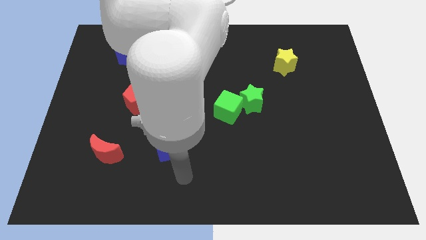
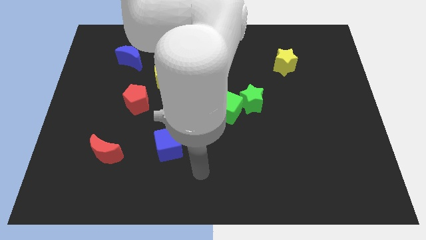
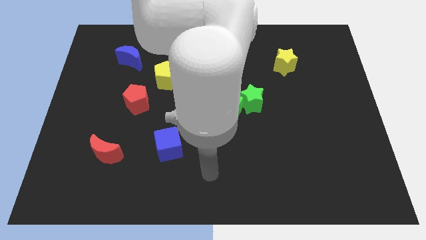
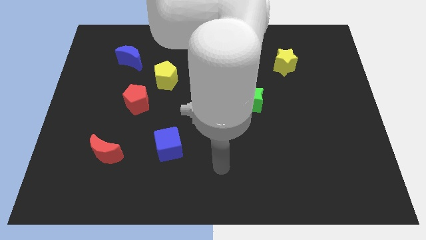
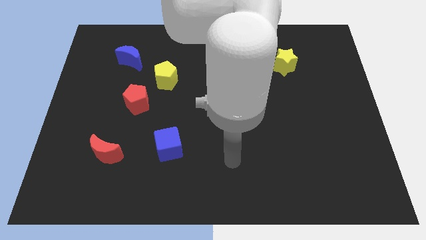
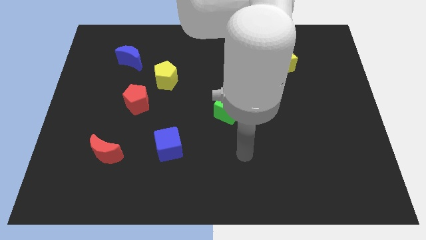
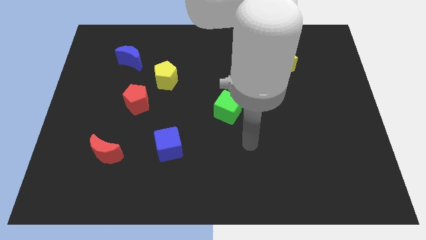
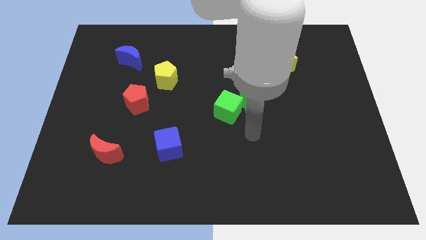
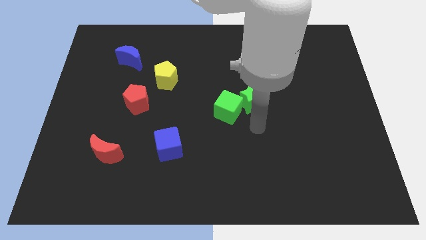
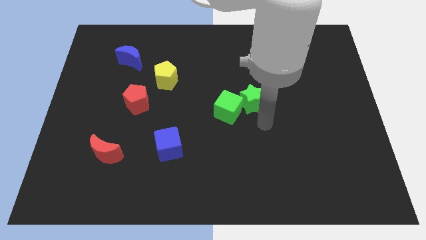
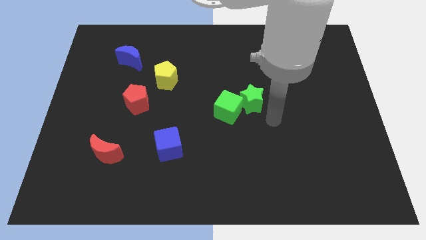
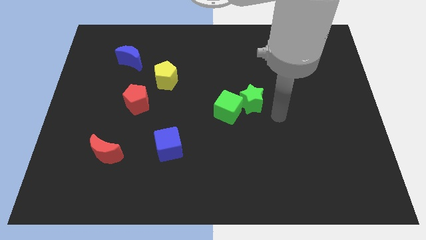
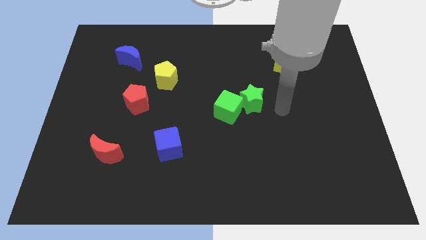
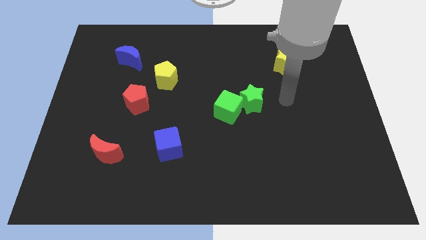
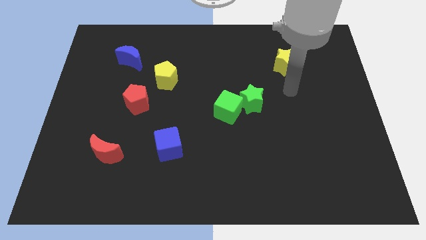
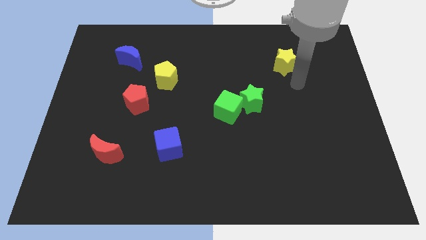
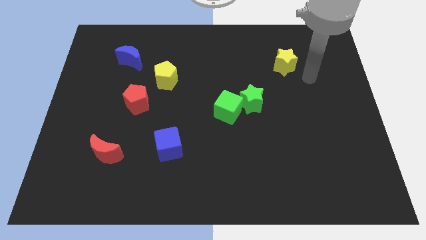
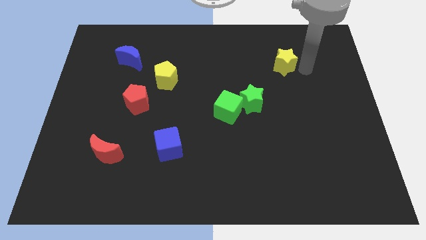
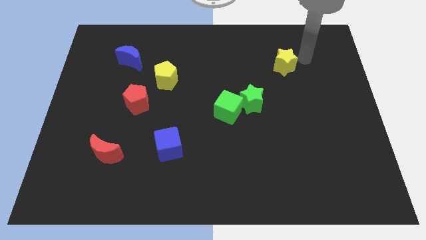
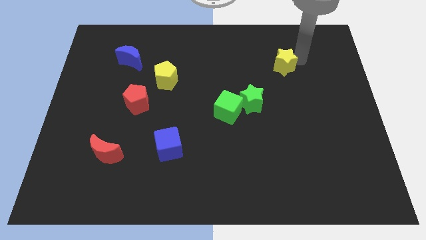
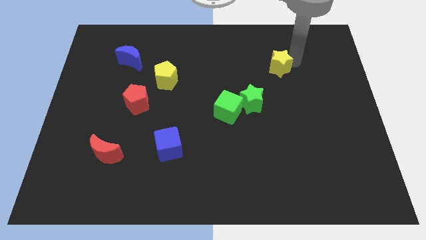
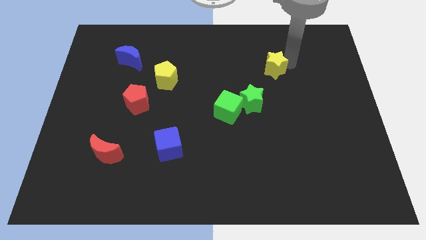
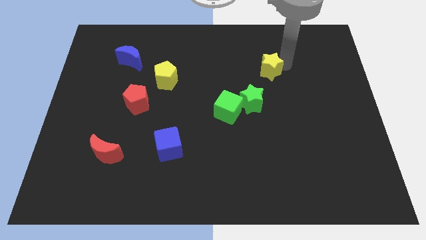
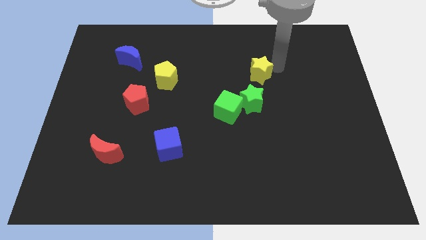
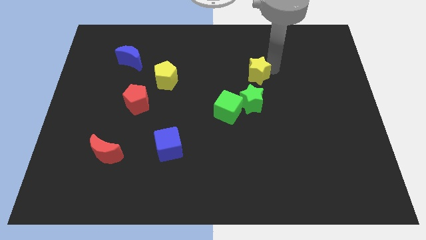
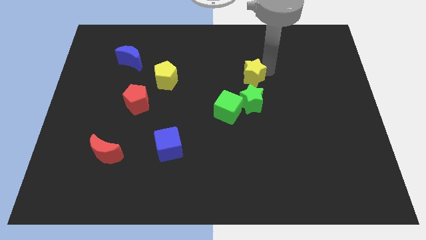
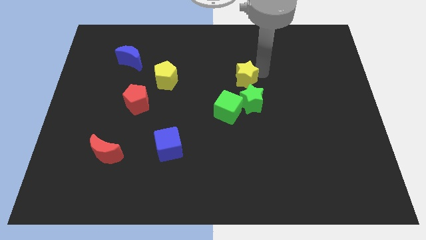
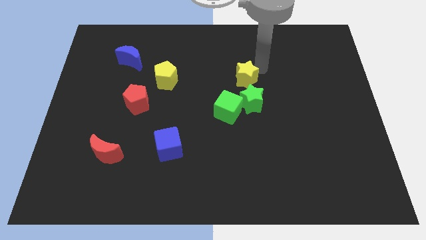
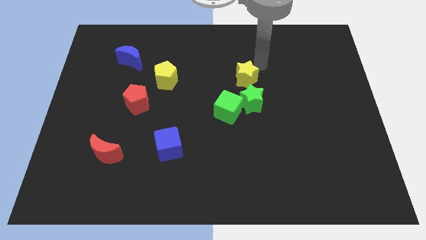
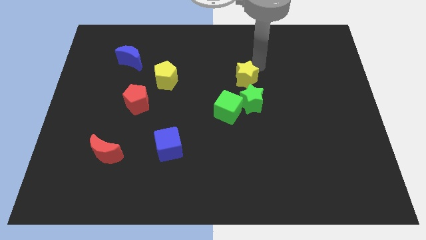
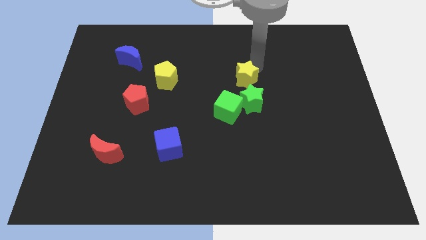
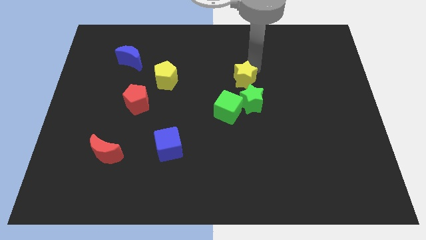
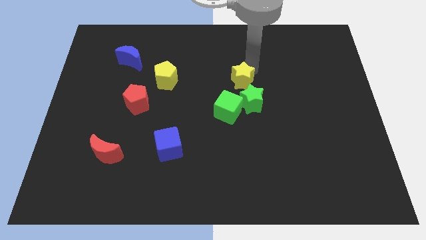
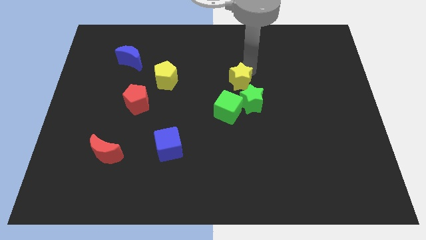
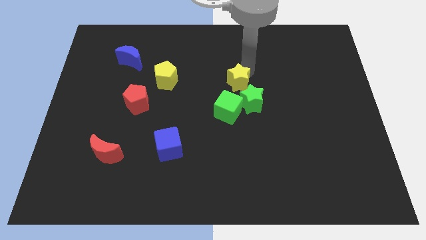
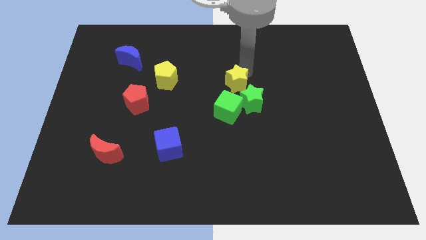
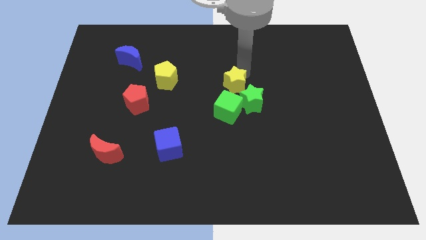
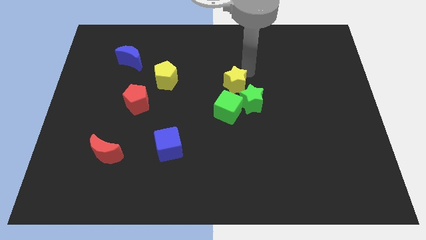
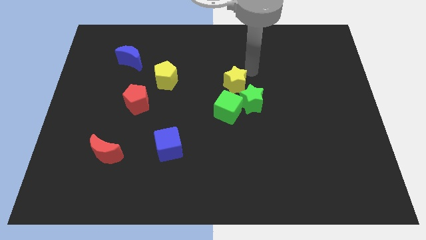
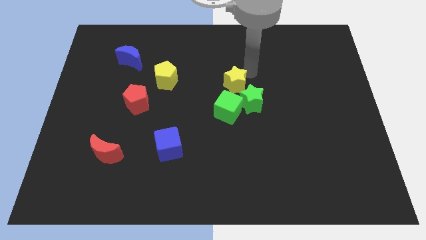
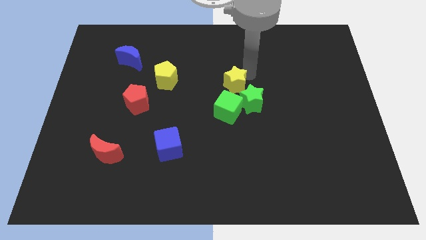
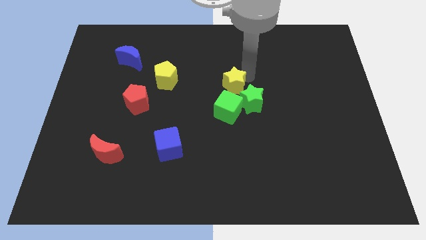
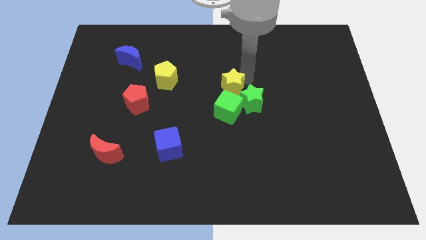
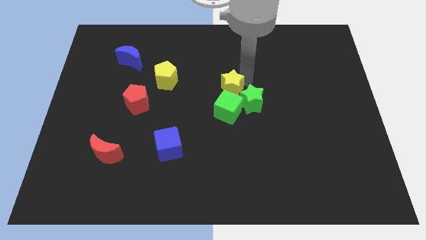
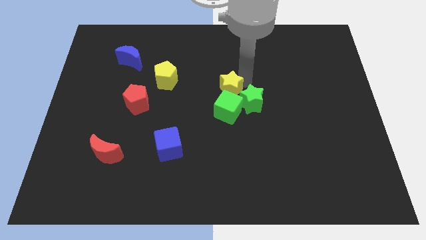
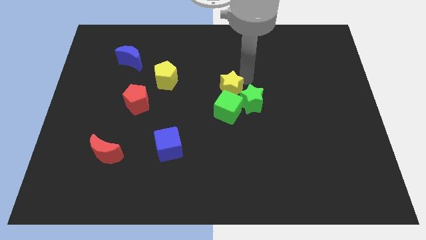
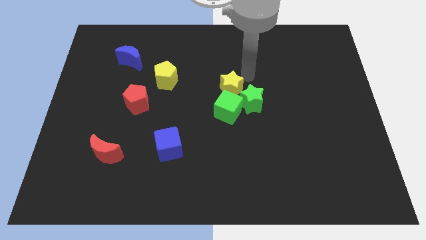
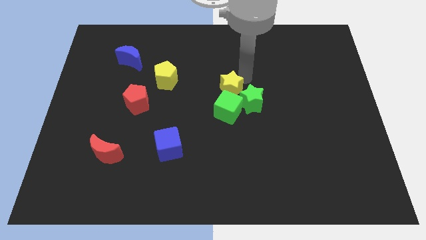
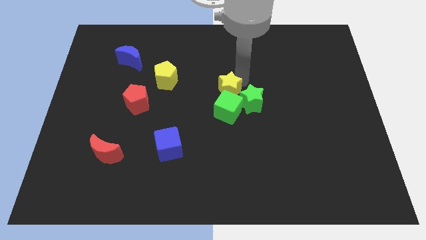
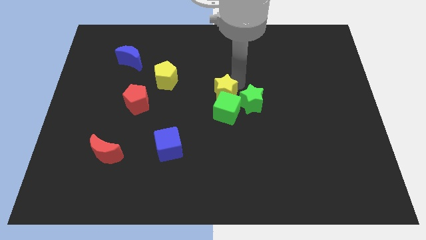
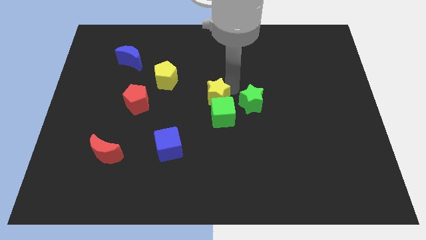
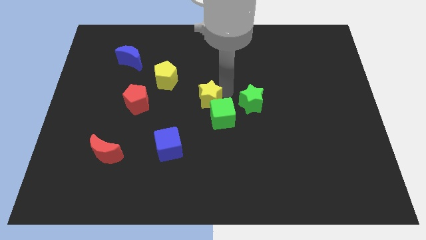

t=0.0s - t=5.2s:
push the yellow star down and left

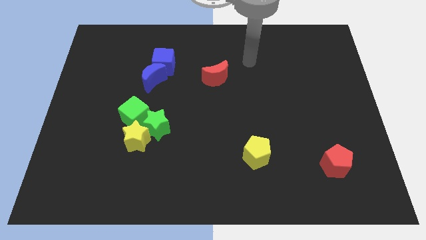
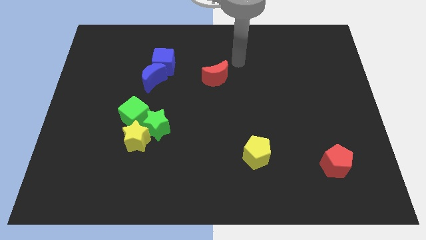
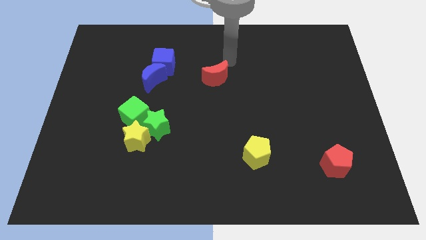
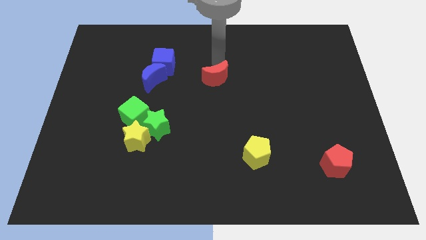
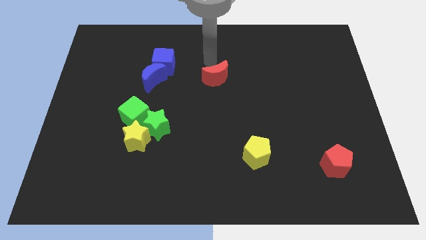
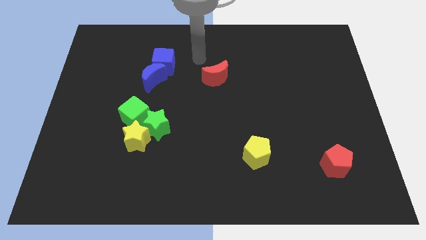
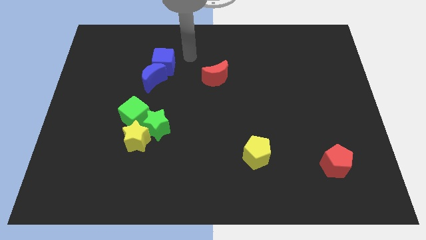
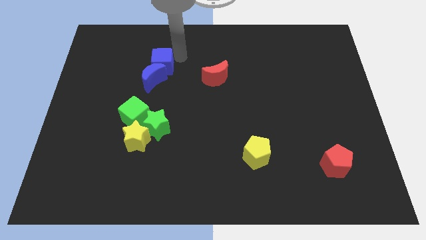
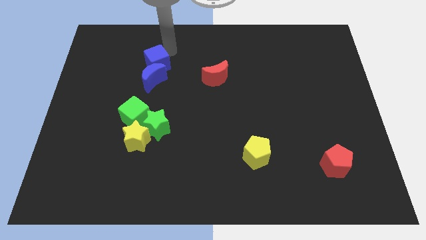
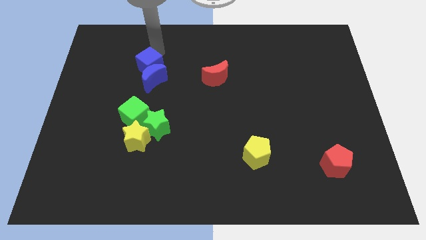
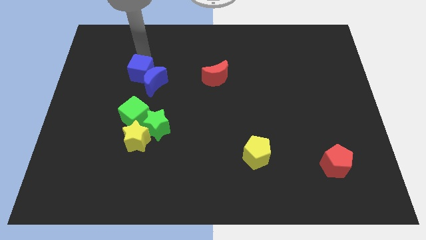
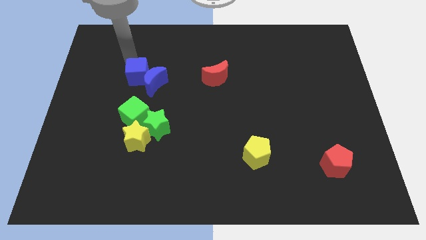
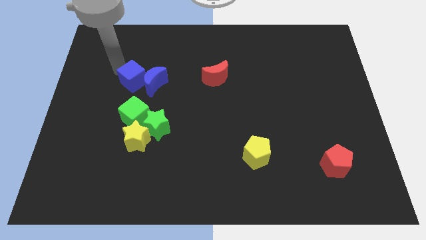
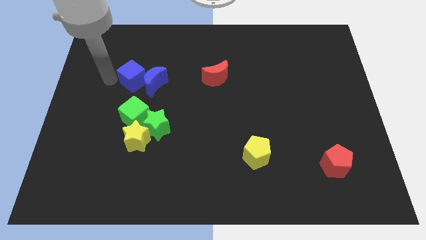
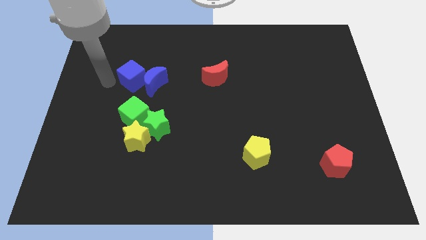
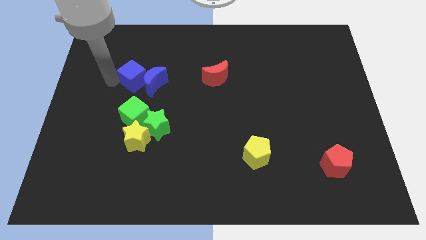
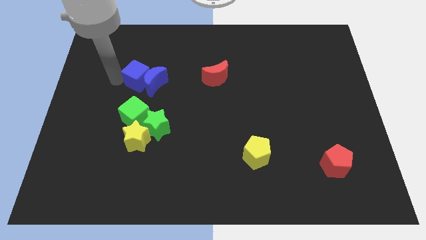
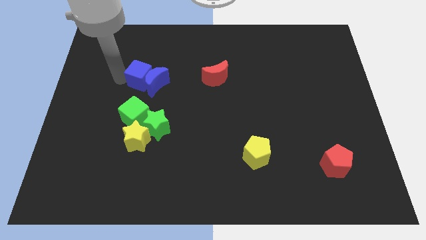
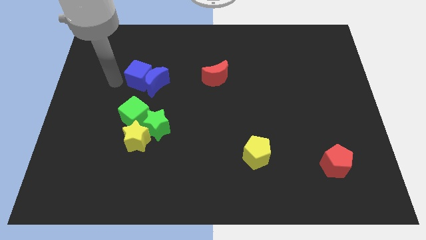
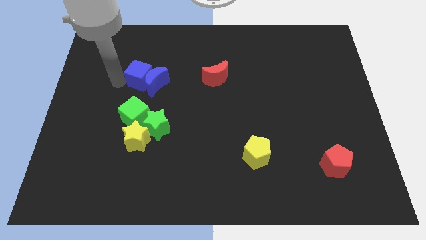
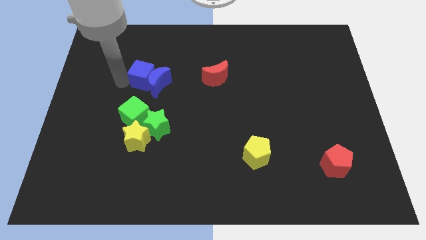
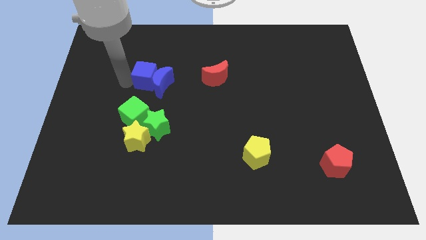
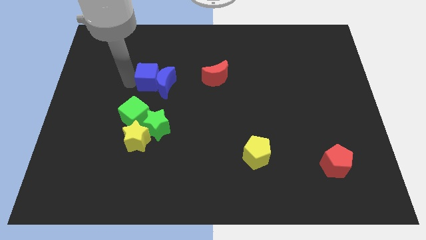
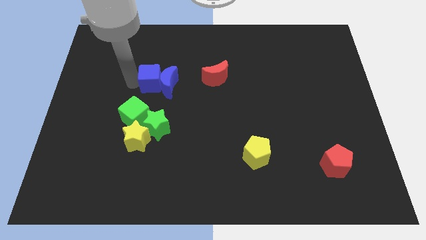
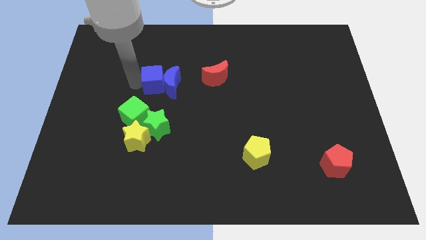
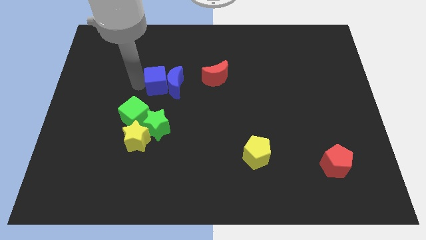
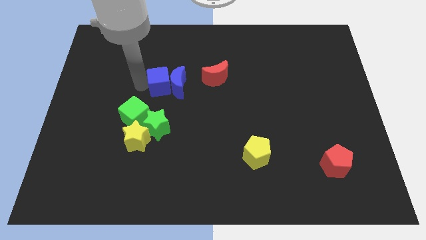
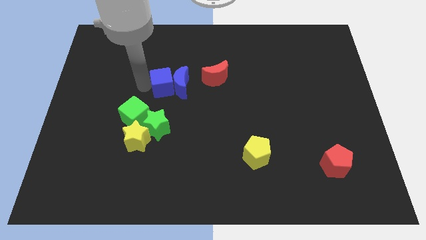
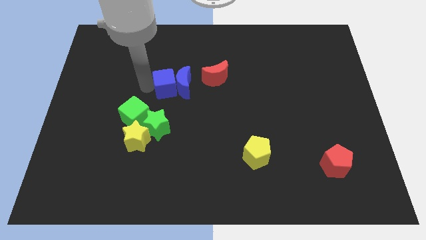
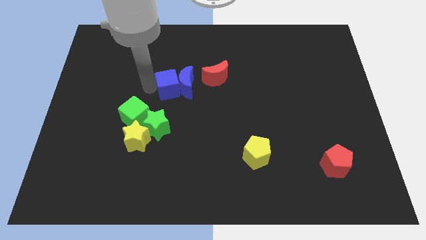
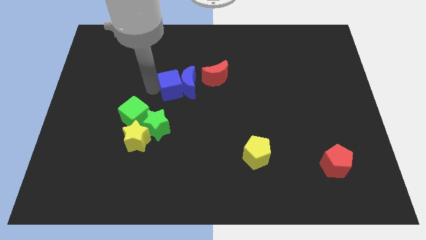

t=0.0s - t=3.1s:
move the blue cube a little bit downwards and to the right
